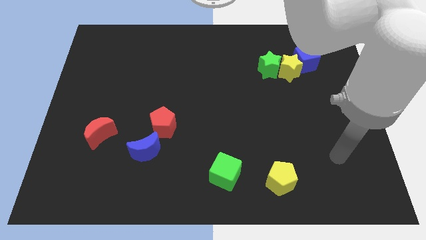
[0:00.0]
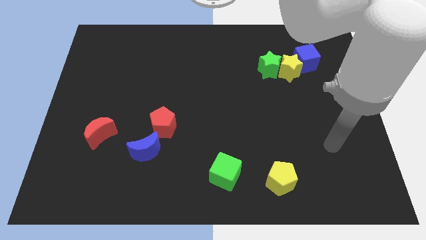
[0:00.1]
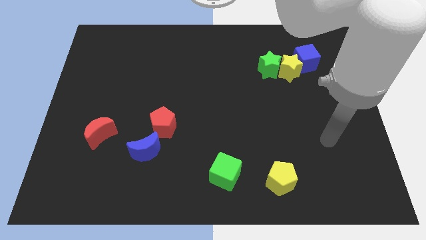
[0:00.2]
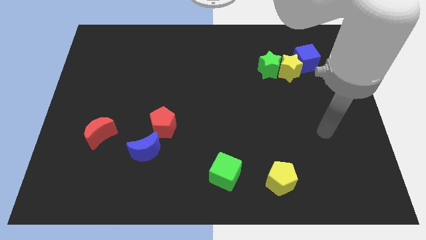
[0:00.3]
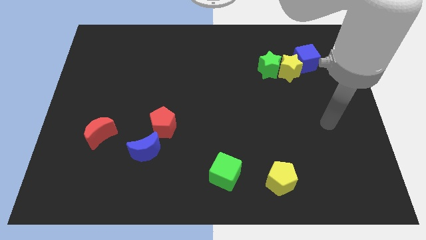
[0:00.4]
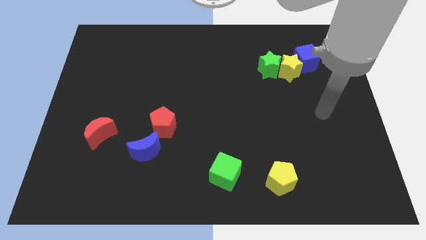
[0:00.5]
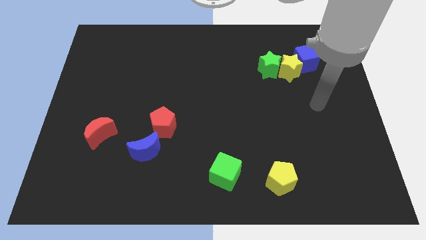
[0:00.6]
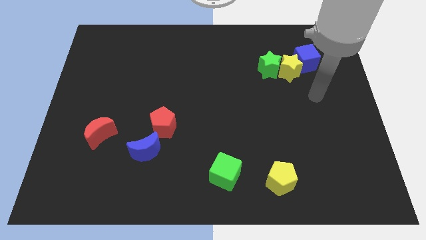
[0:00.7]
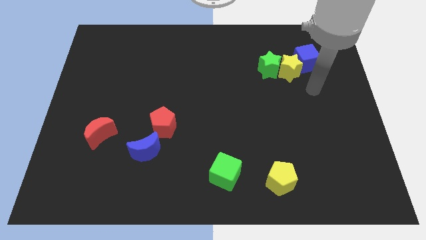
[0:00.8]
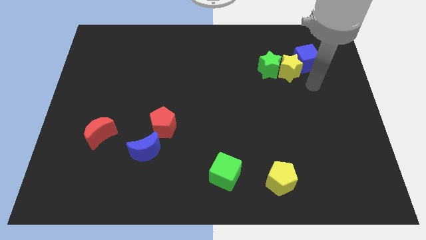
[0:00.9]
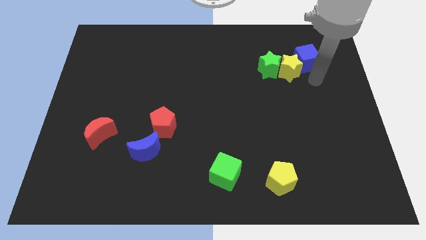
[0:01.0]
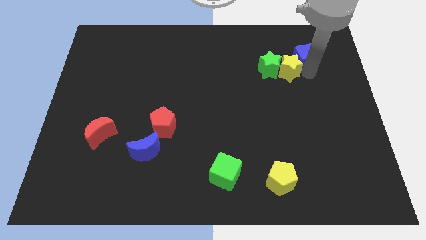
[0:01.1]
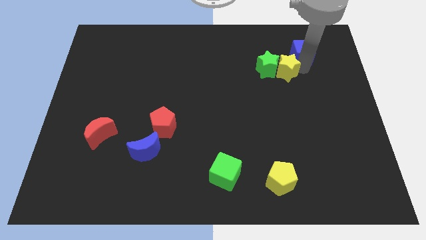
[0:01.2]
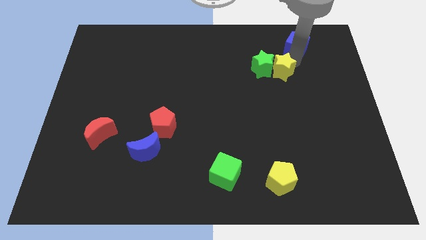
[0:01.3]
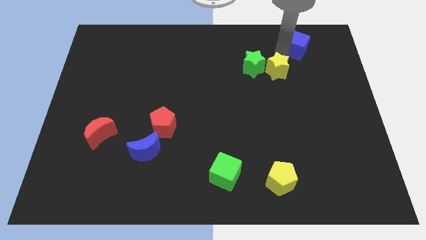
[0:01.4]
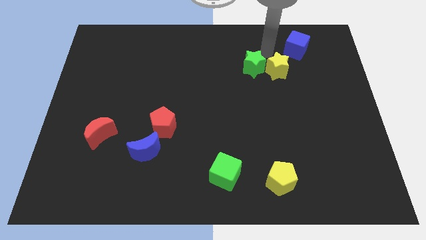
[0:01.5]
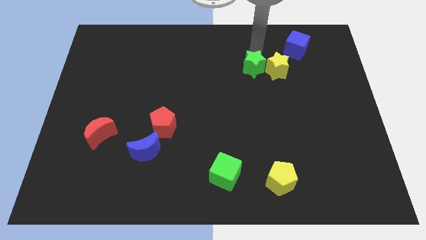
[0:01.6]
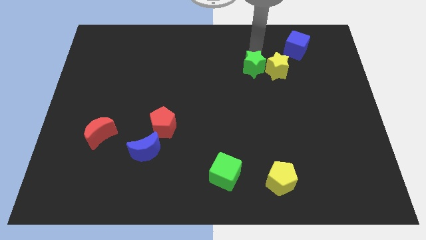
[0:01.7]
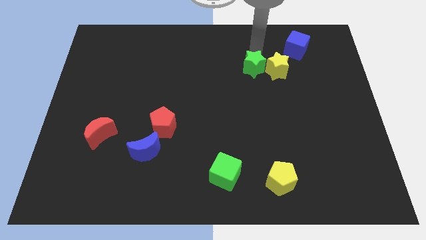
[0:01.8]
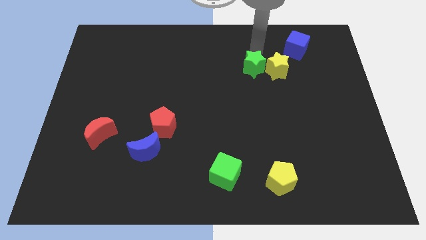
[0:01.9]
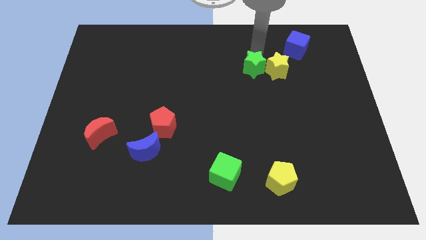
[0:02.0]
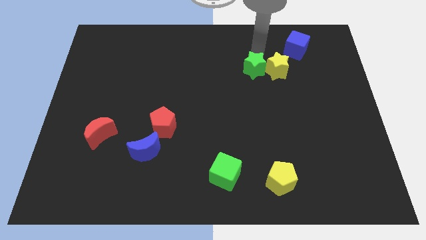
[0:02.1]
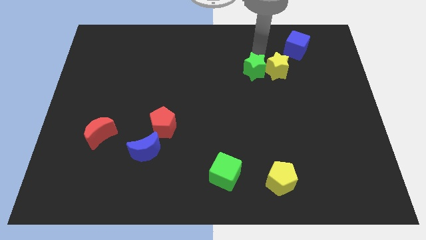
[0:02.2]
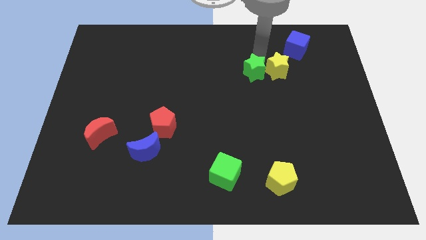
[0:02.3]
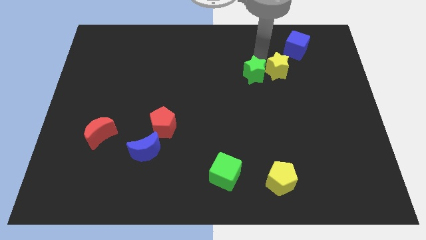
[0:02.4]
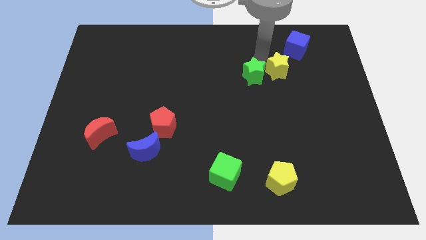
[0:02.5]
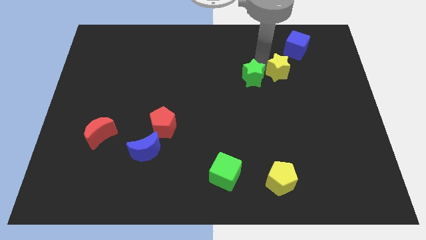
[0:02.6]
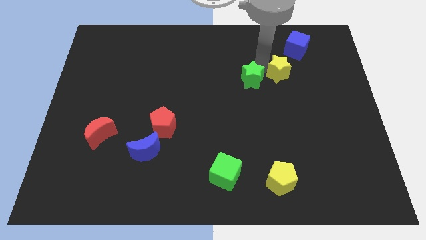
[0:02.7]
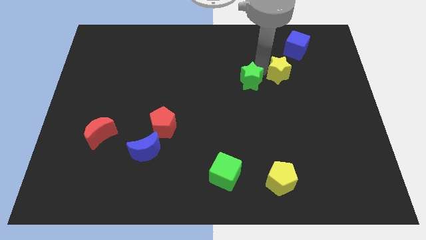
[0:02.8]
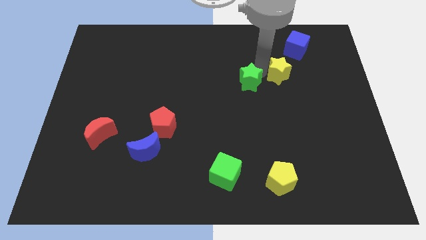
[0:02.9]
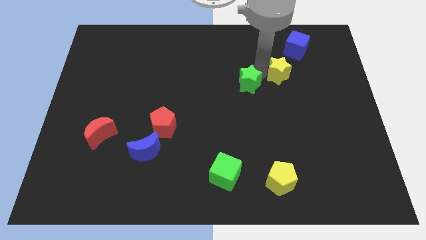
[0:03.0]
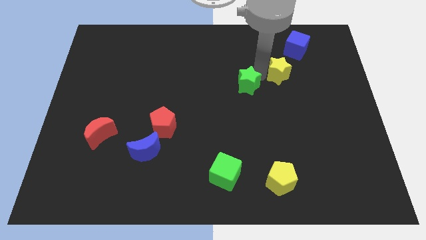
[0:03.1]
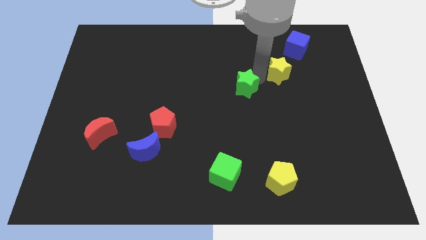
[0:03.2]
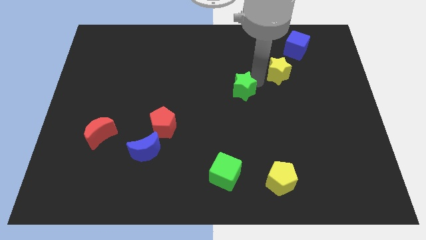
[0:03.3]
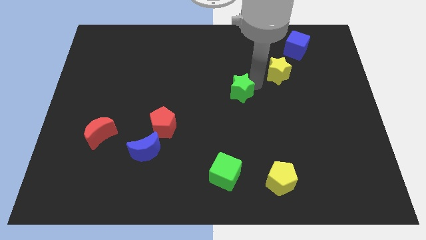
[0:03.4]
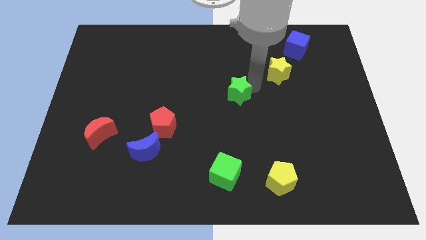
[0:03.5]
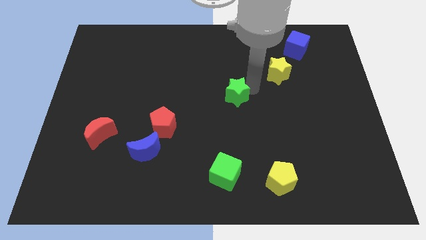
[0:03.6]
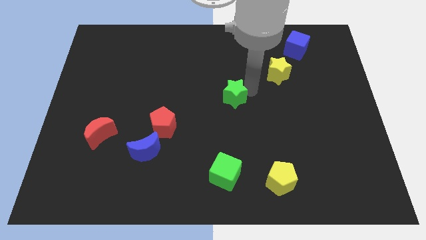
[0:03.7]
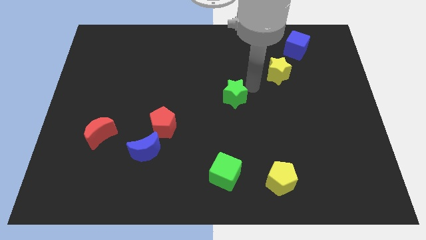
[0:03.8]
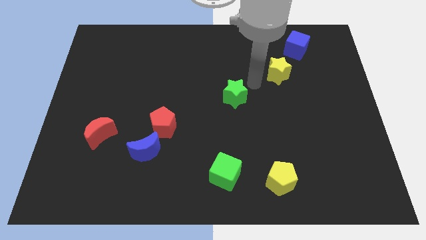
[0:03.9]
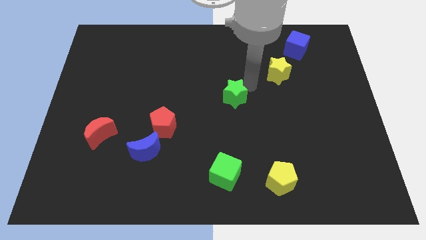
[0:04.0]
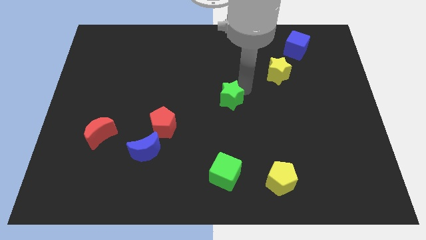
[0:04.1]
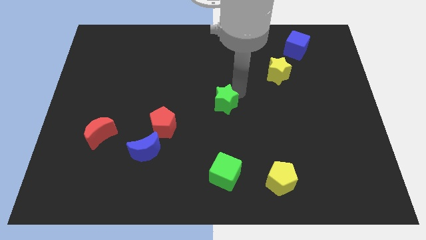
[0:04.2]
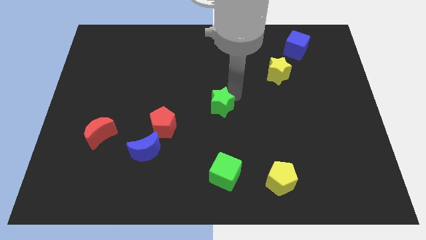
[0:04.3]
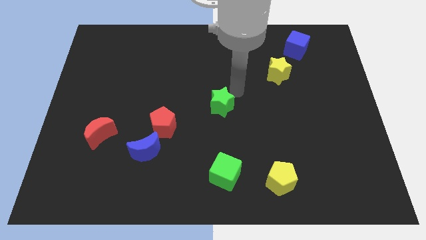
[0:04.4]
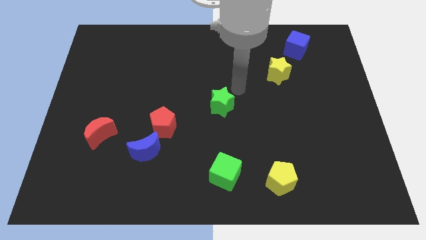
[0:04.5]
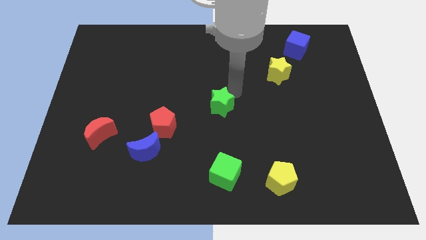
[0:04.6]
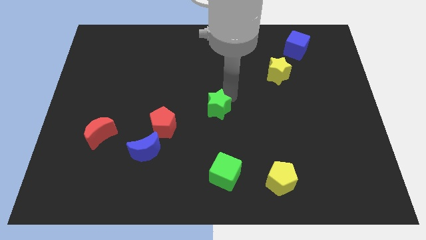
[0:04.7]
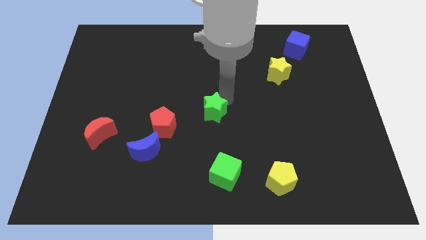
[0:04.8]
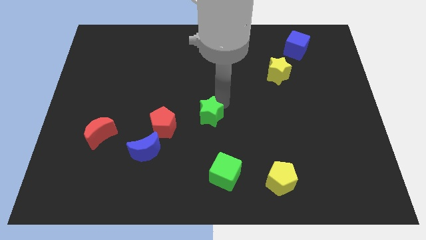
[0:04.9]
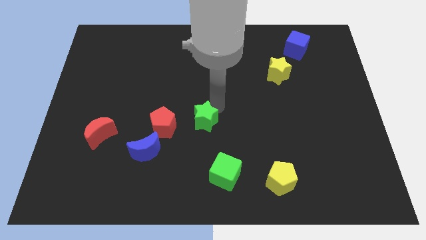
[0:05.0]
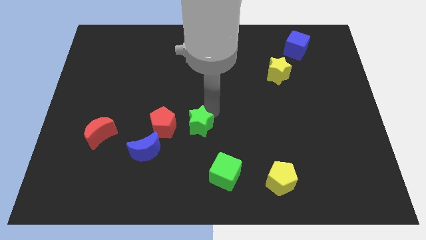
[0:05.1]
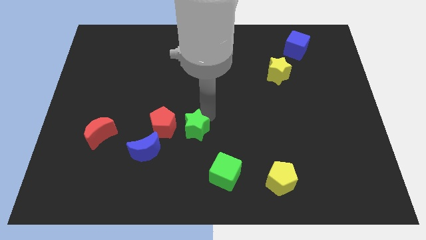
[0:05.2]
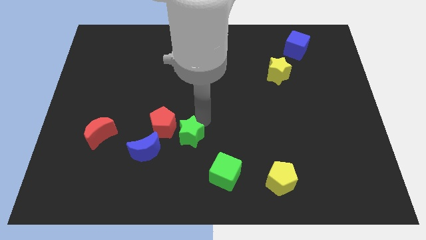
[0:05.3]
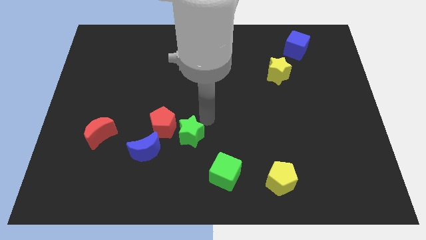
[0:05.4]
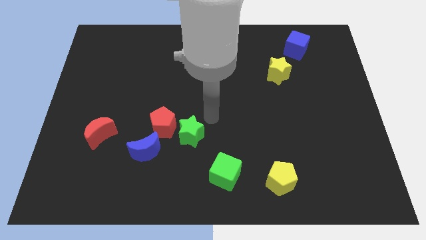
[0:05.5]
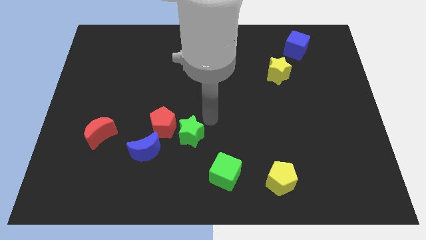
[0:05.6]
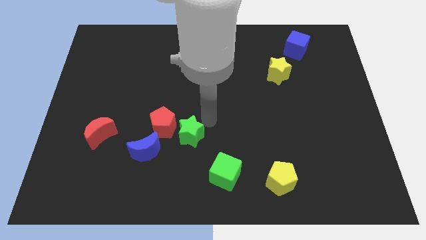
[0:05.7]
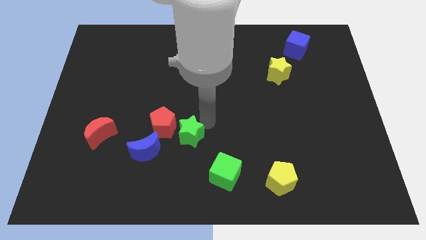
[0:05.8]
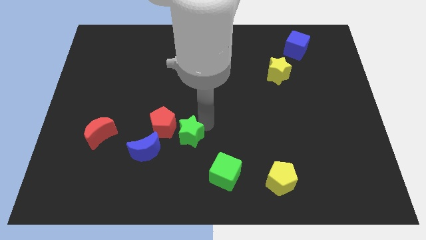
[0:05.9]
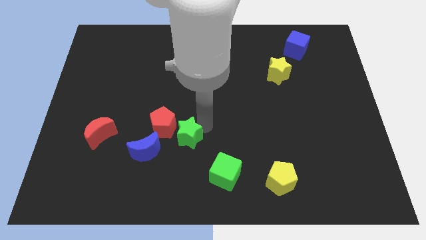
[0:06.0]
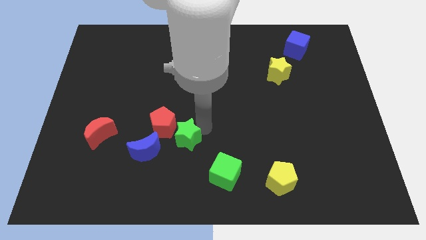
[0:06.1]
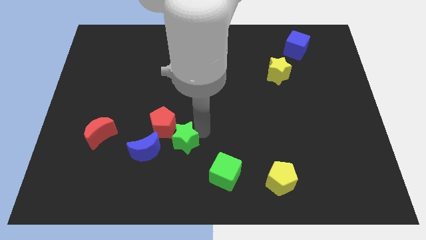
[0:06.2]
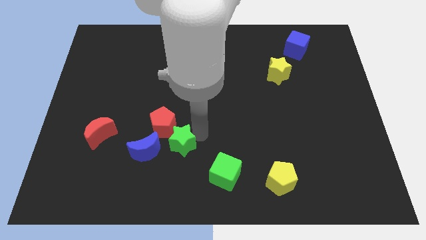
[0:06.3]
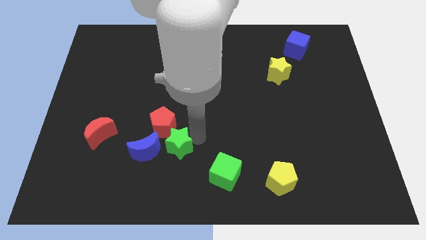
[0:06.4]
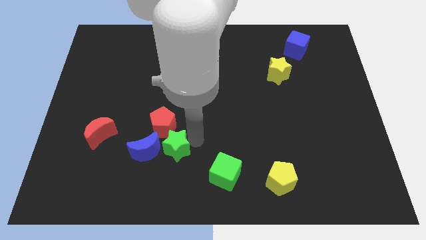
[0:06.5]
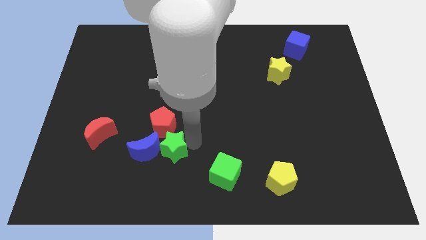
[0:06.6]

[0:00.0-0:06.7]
move the green star to the blue moon

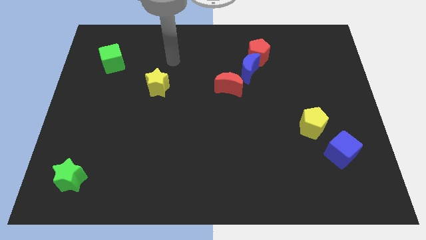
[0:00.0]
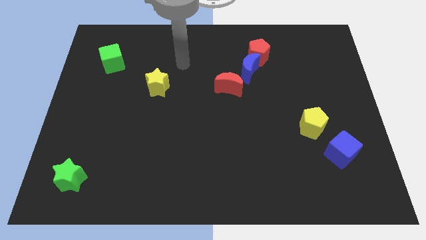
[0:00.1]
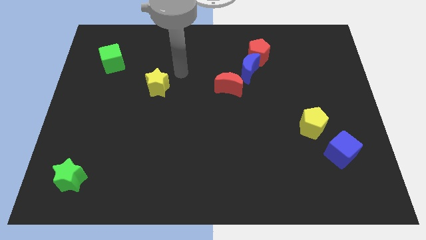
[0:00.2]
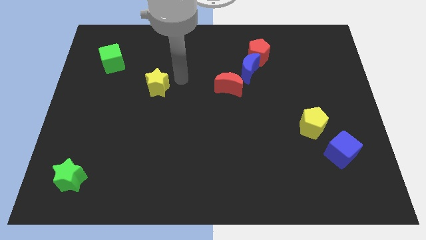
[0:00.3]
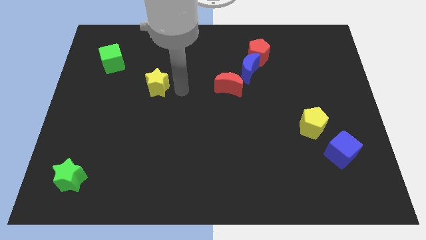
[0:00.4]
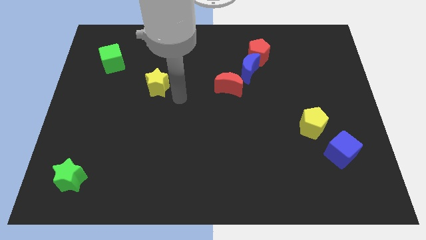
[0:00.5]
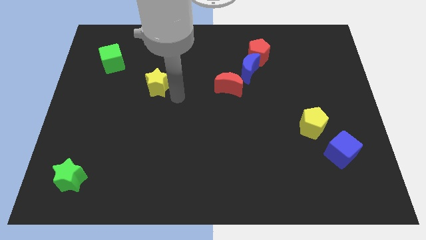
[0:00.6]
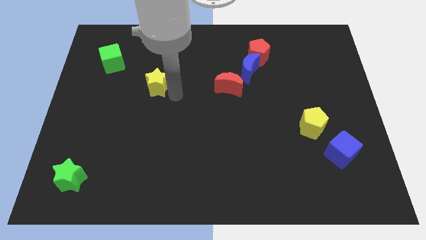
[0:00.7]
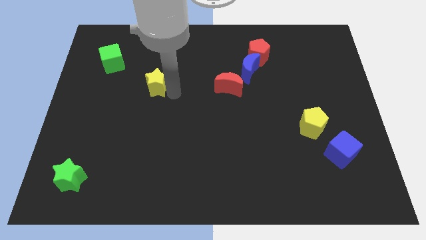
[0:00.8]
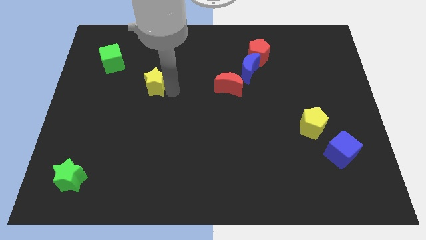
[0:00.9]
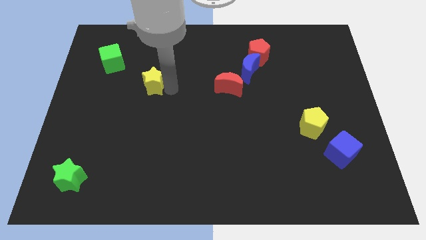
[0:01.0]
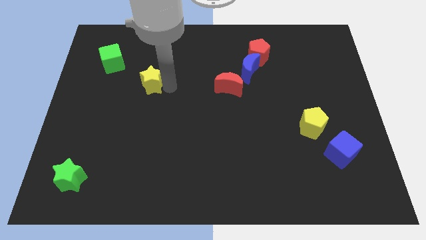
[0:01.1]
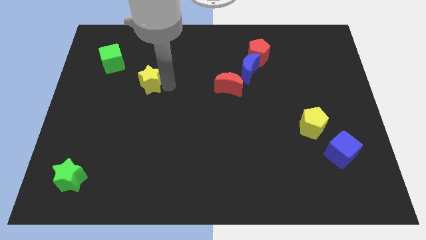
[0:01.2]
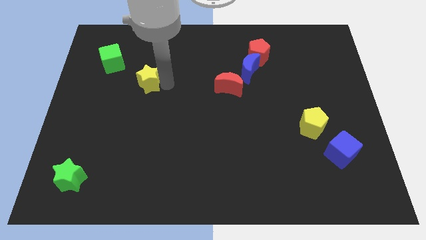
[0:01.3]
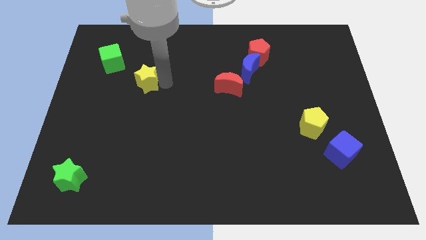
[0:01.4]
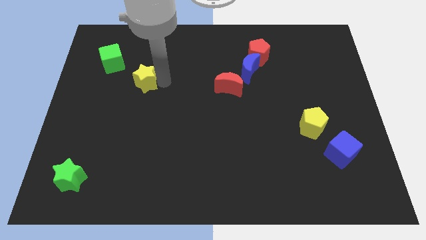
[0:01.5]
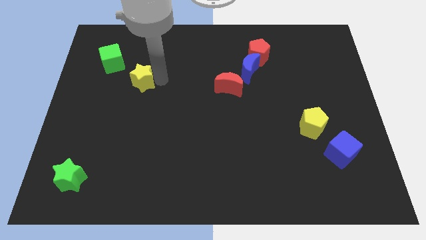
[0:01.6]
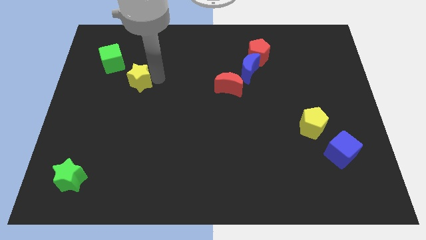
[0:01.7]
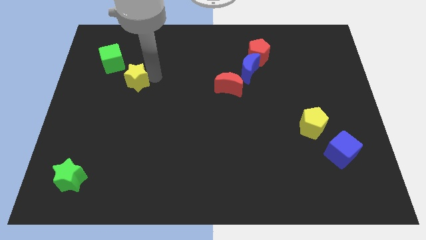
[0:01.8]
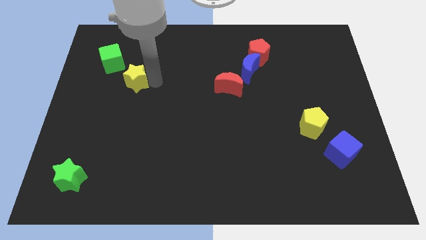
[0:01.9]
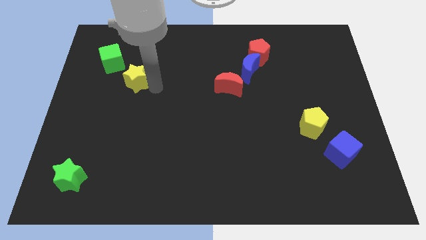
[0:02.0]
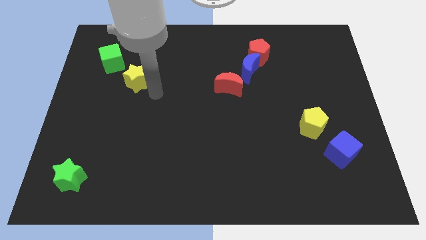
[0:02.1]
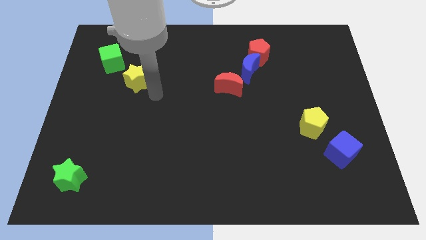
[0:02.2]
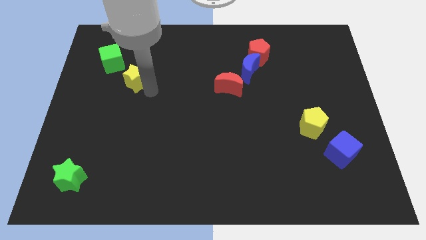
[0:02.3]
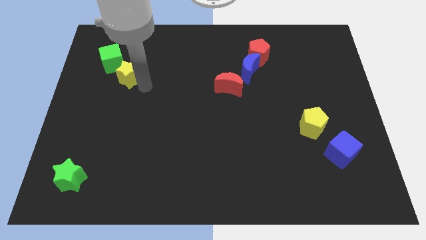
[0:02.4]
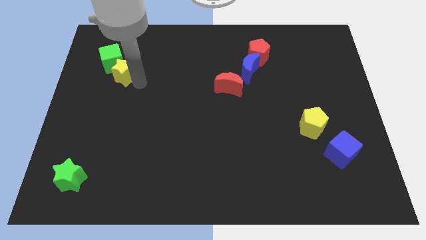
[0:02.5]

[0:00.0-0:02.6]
put the yellow star next to the green cube
